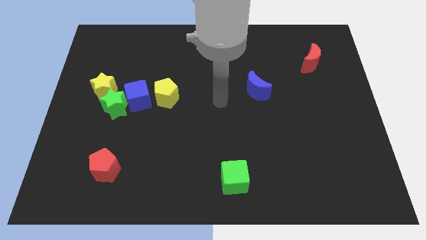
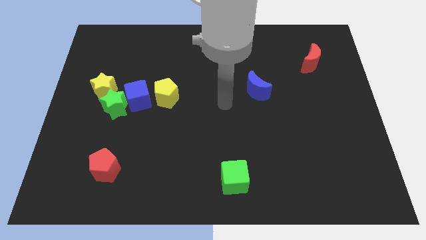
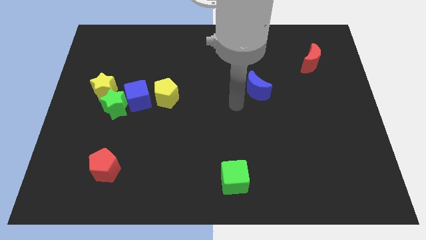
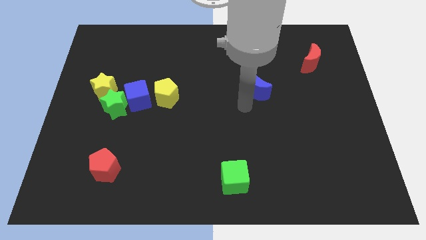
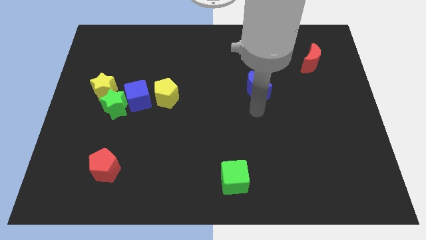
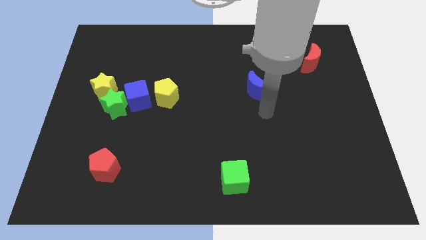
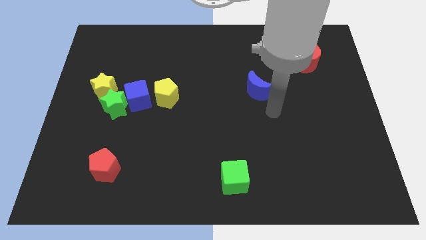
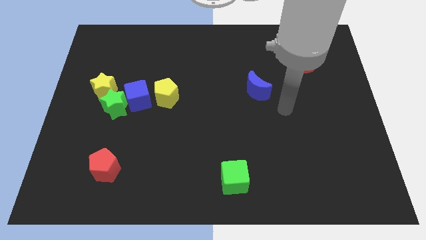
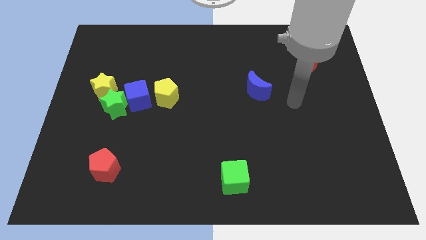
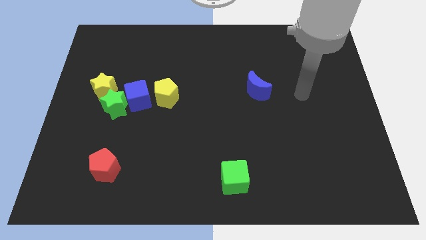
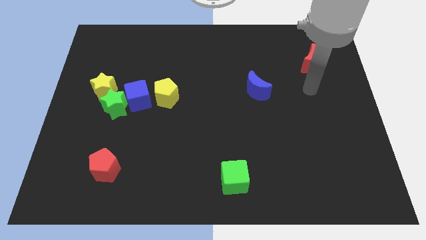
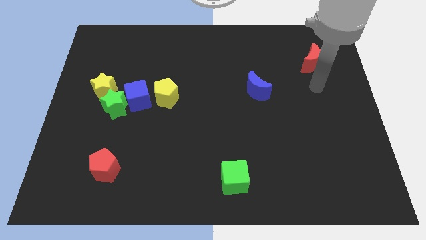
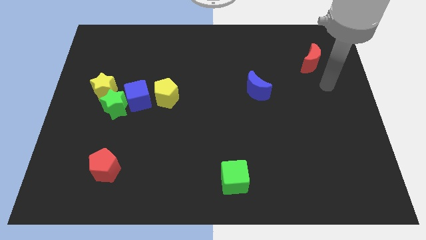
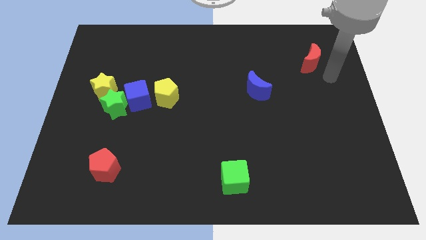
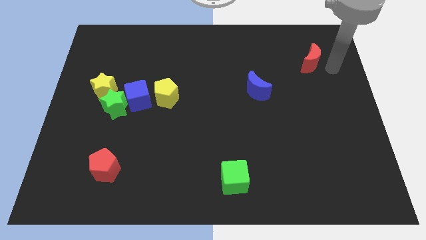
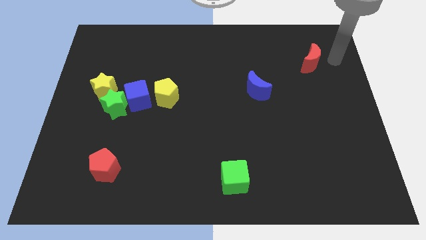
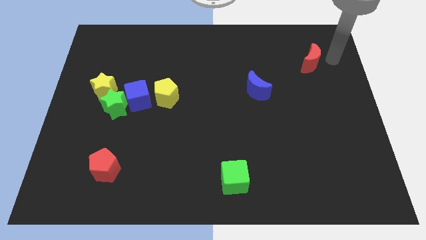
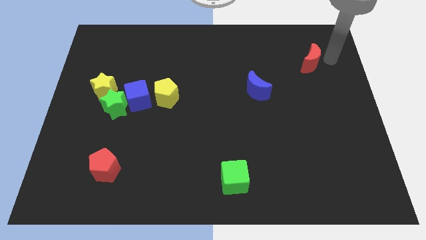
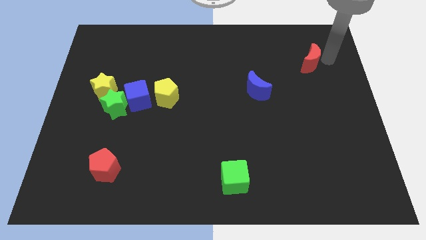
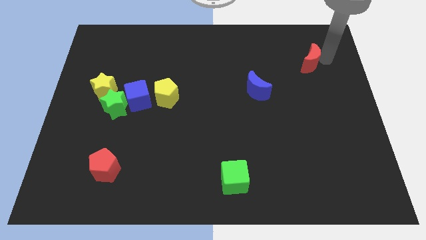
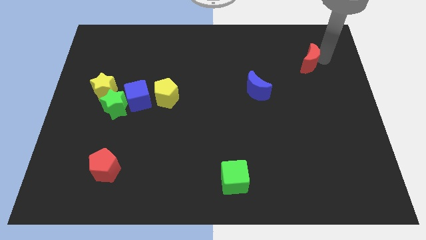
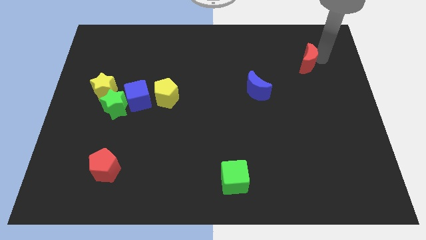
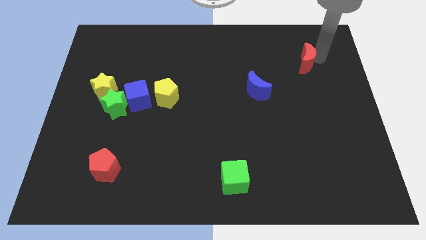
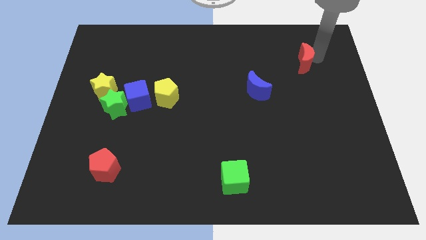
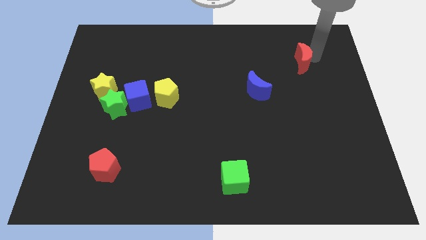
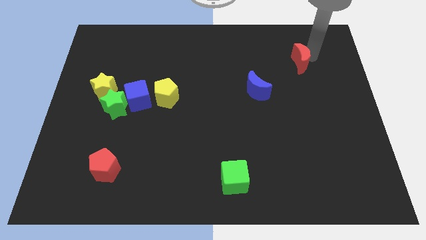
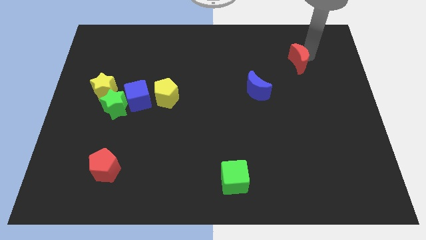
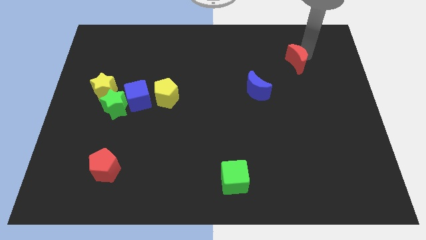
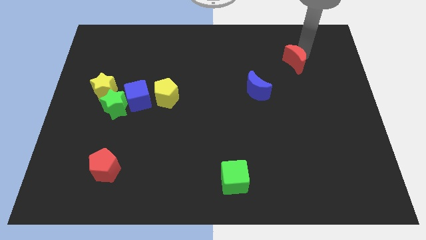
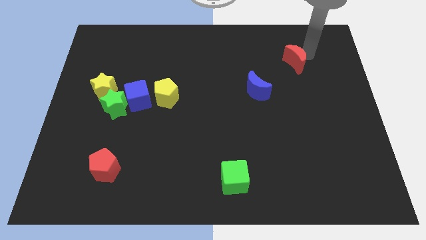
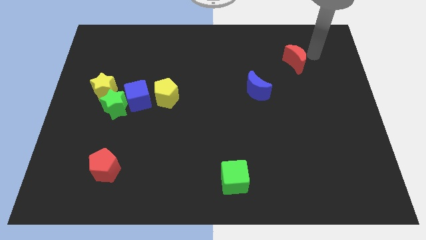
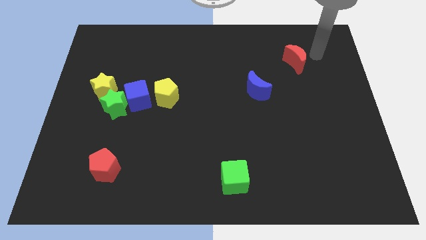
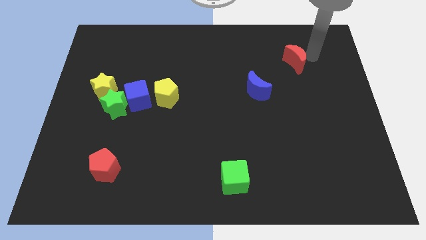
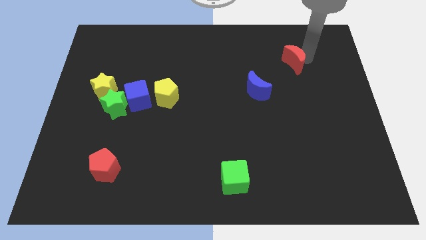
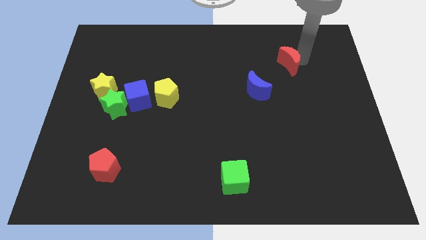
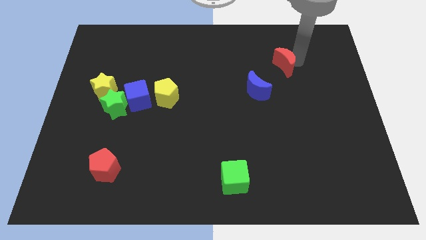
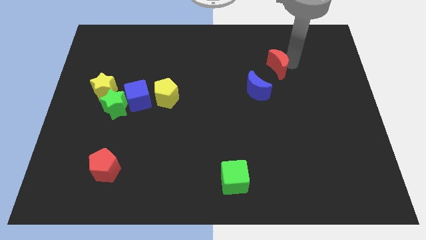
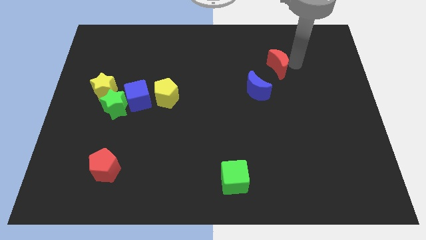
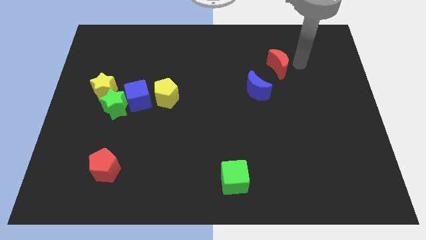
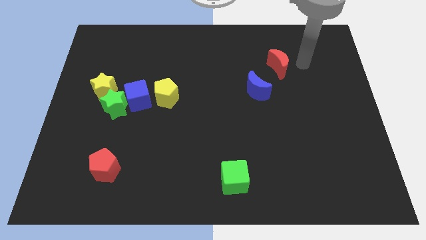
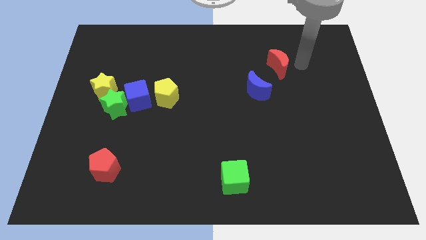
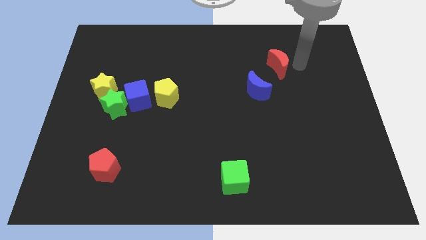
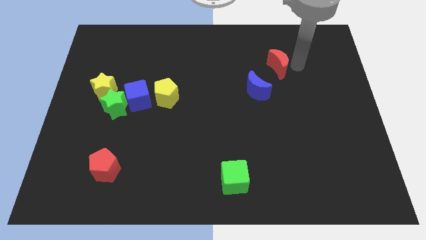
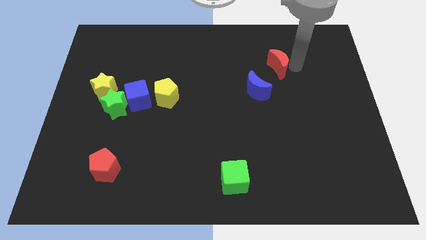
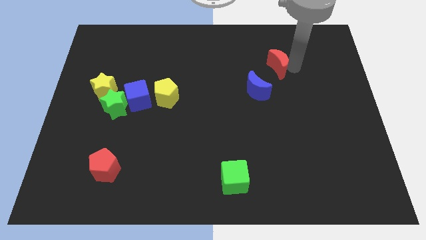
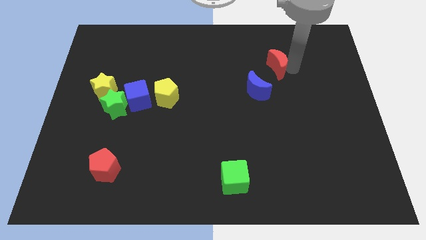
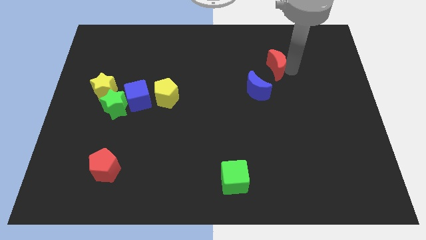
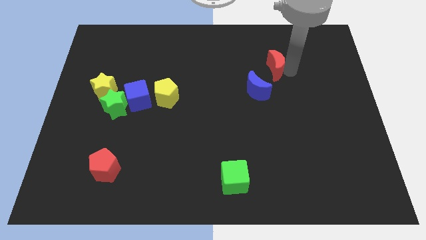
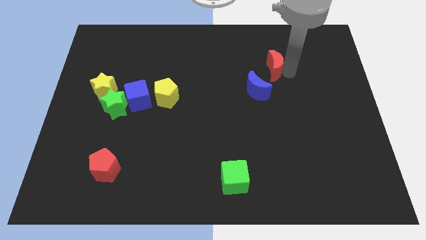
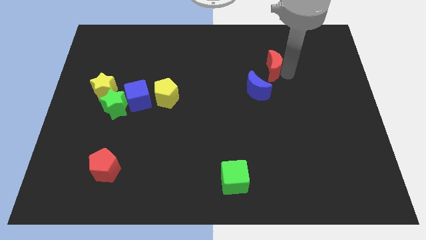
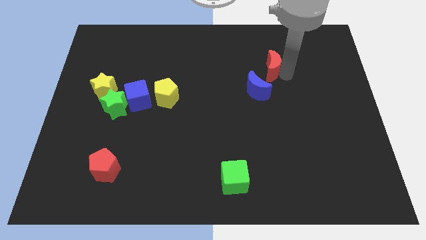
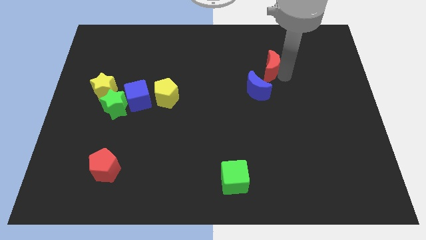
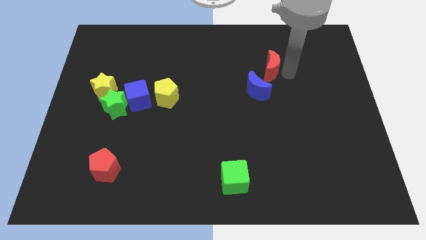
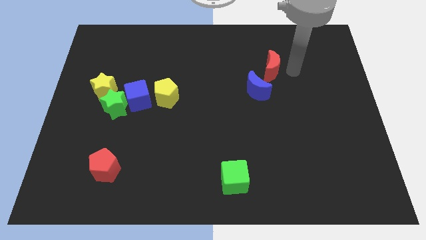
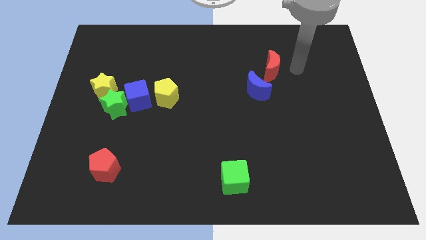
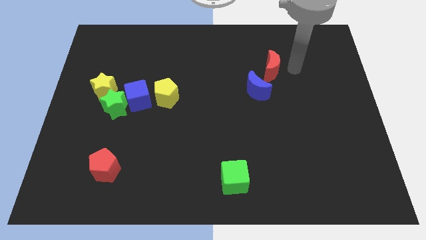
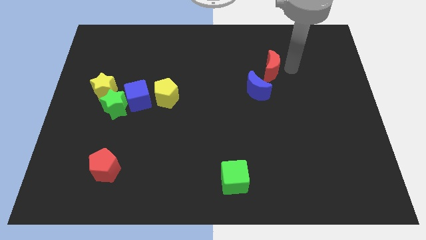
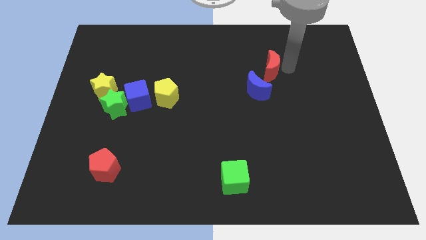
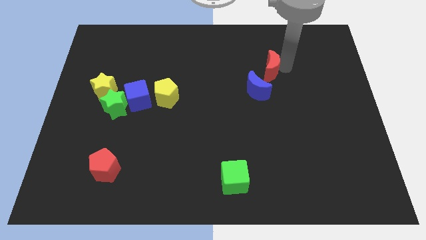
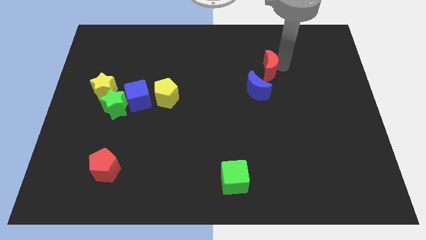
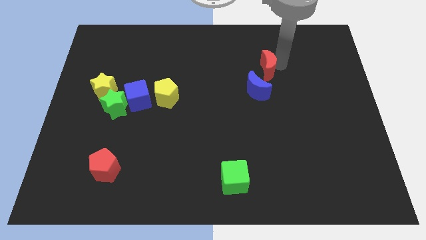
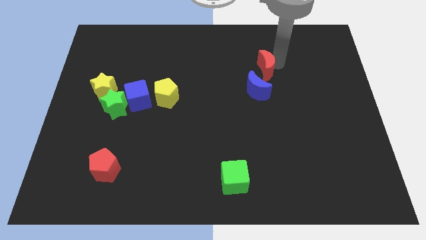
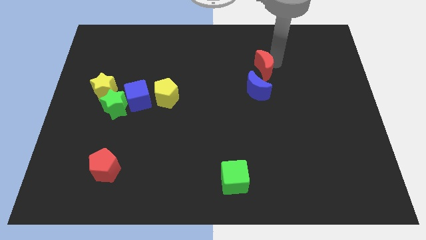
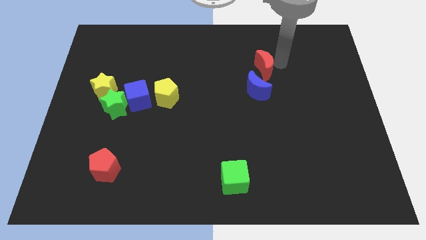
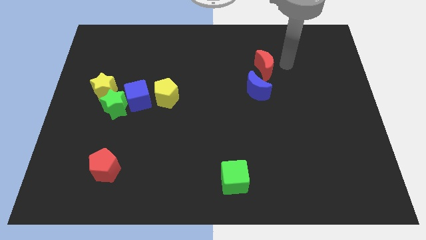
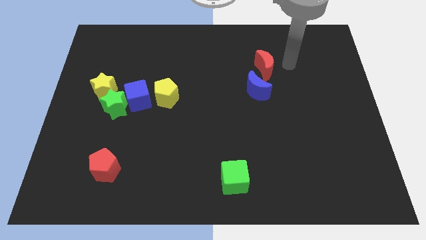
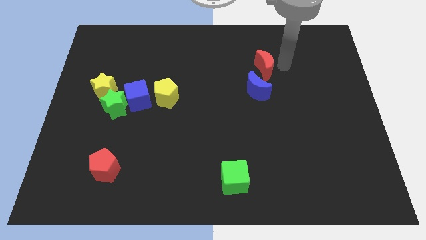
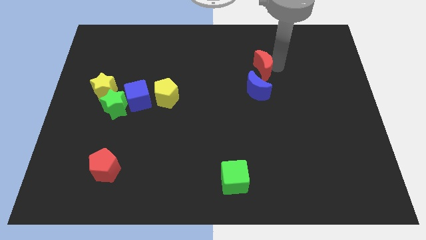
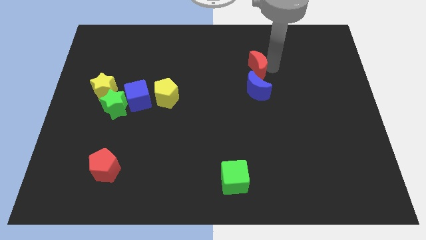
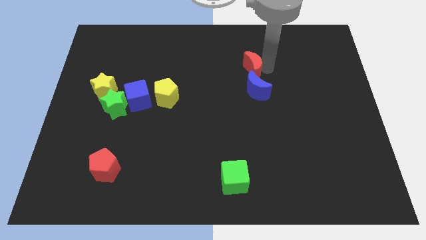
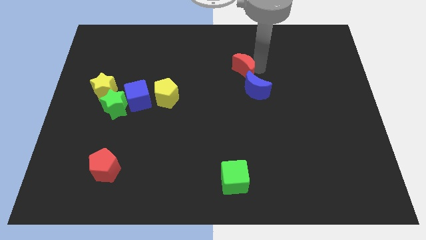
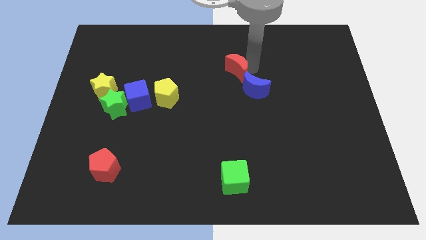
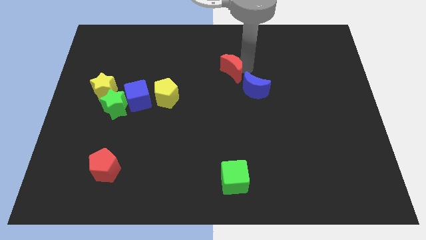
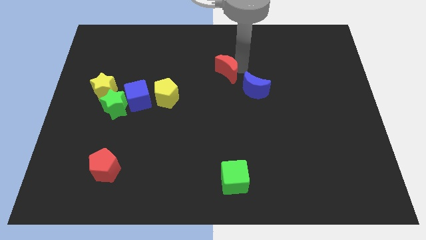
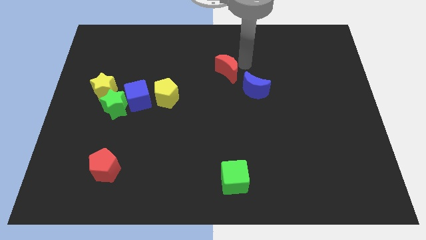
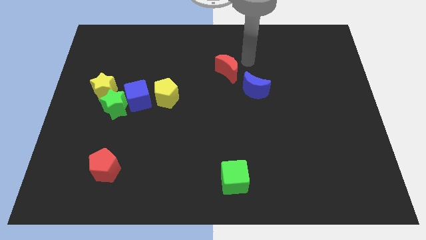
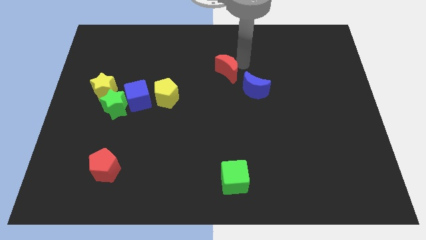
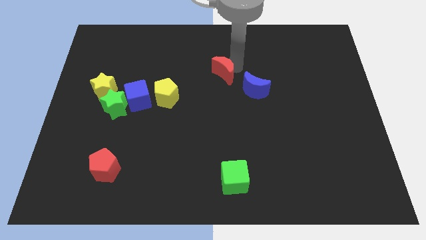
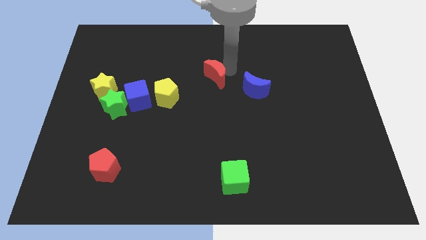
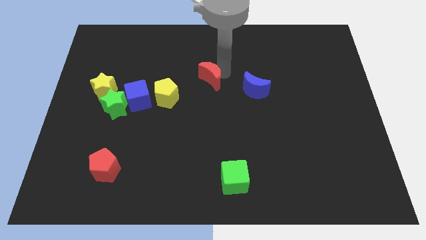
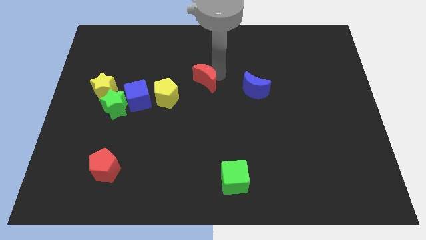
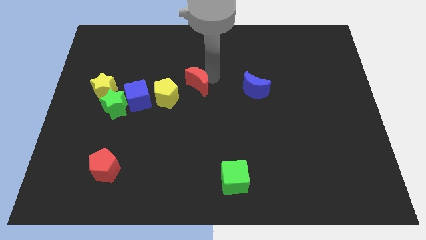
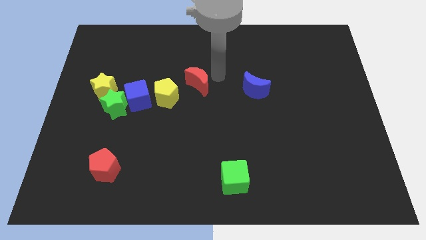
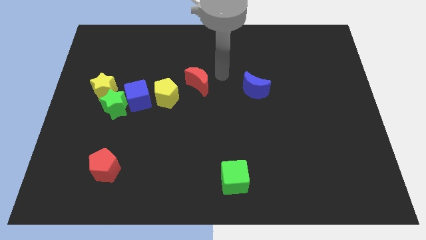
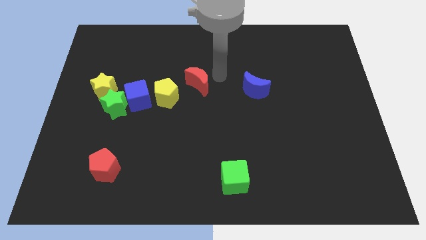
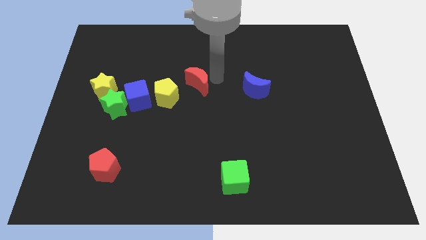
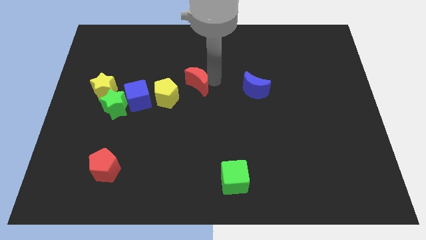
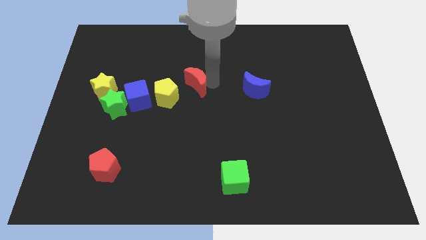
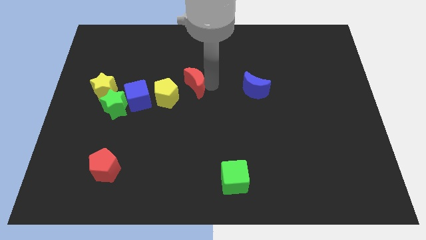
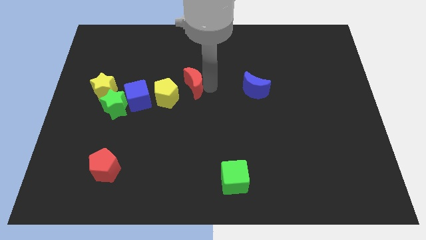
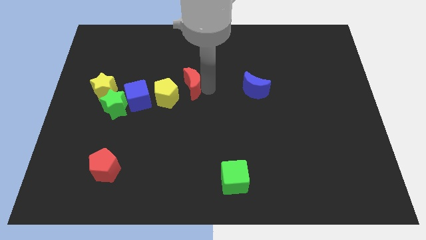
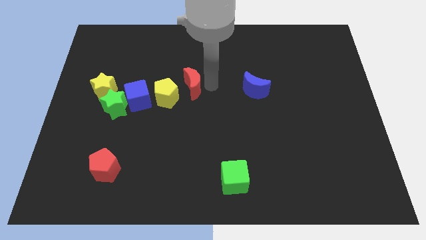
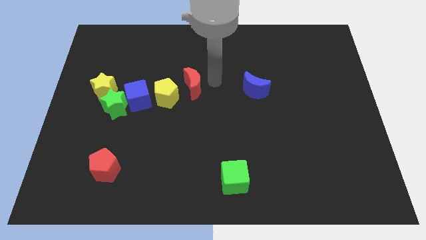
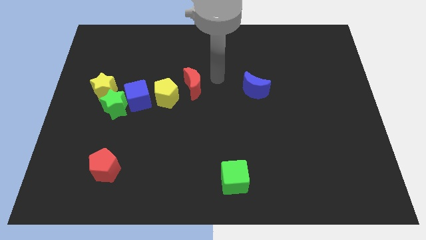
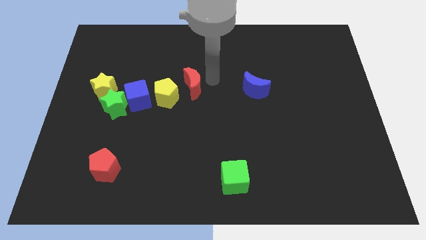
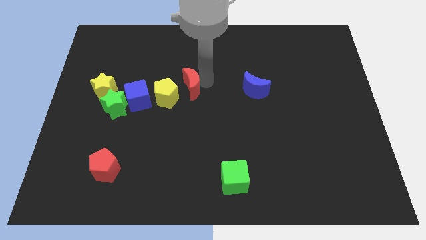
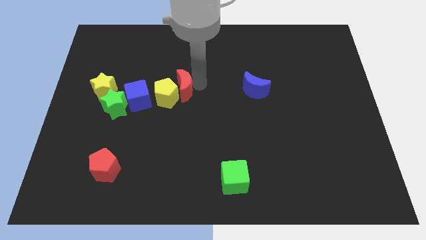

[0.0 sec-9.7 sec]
slide the red moon close to the yellow pentagon
